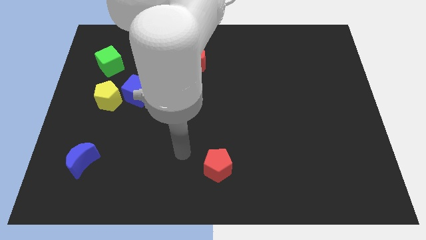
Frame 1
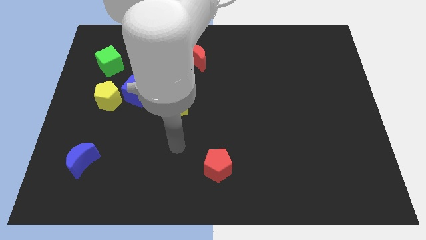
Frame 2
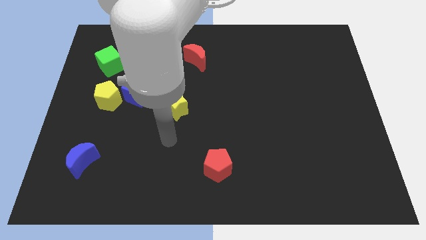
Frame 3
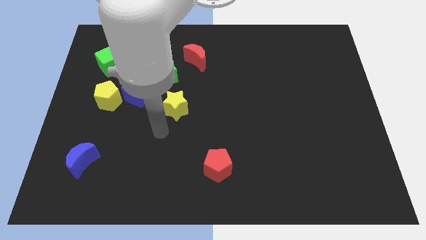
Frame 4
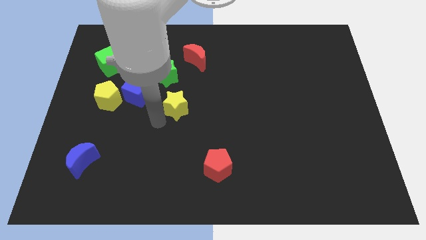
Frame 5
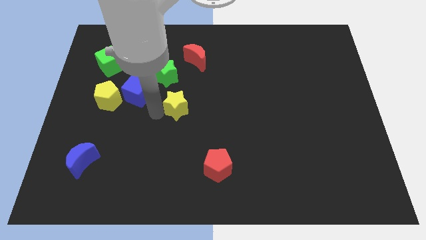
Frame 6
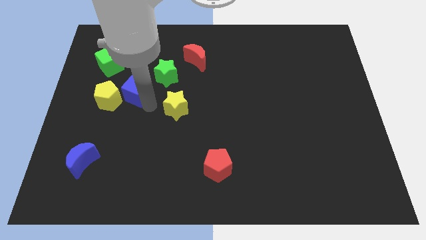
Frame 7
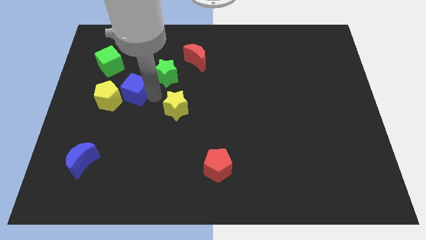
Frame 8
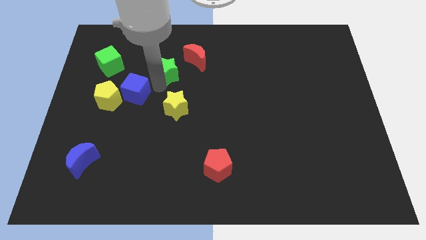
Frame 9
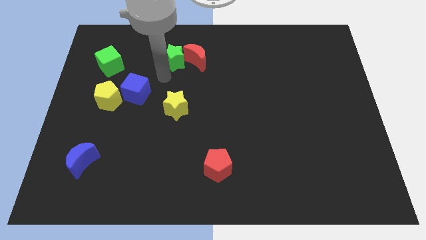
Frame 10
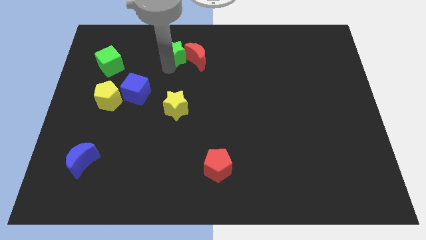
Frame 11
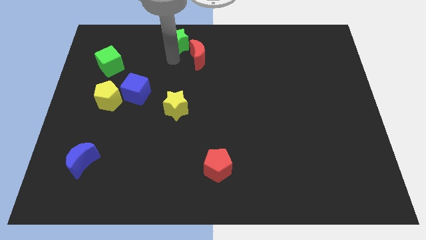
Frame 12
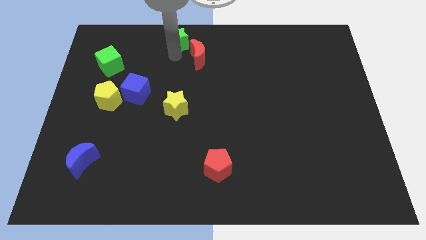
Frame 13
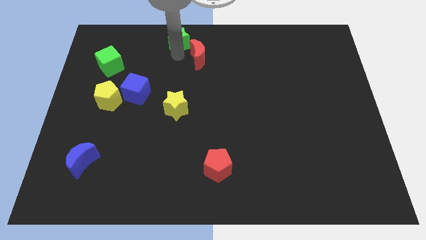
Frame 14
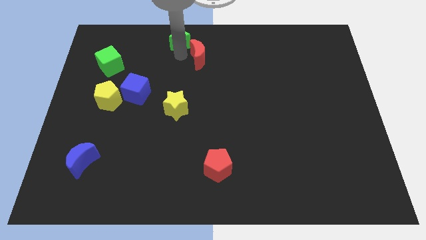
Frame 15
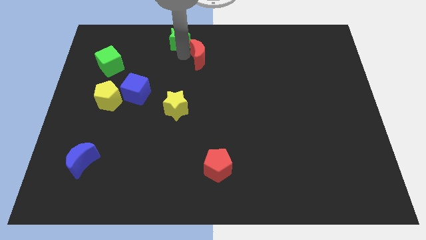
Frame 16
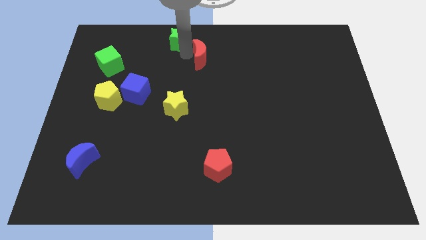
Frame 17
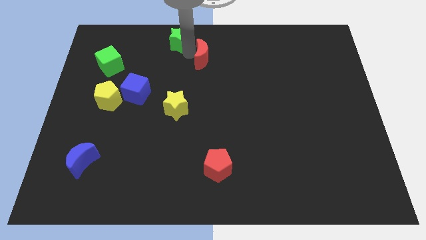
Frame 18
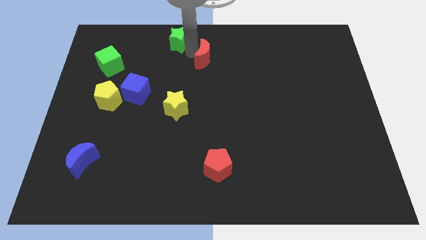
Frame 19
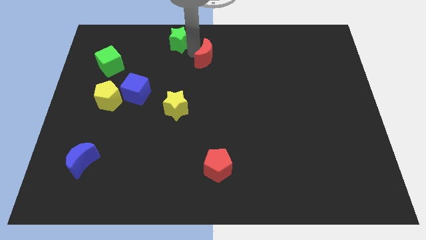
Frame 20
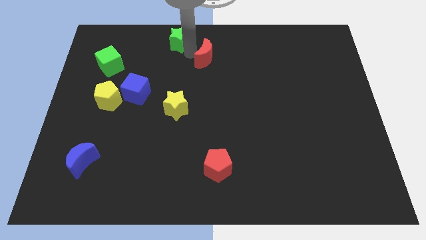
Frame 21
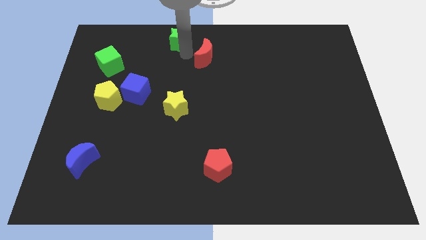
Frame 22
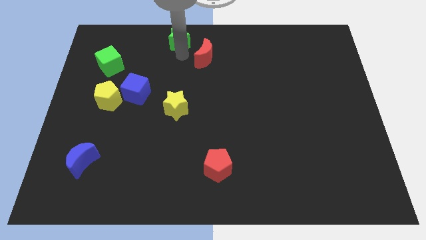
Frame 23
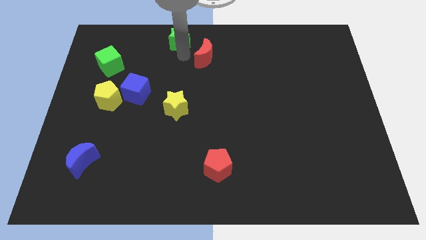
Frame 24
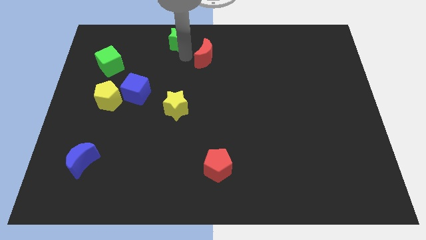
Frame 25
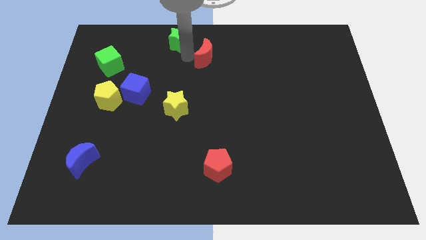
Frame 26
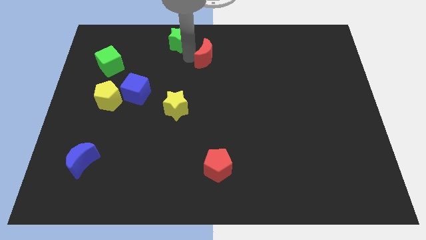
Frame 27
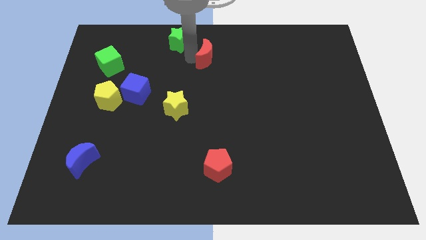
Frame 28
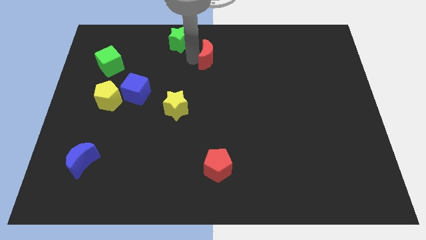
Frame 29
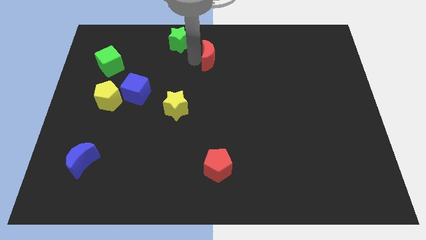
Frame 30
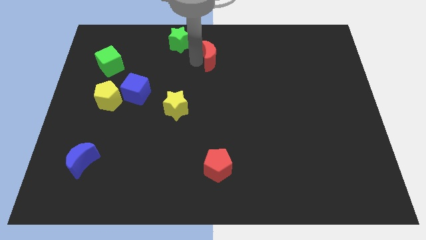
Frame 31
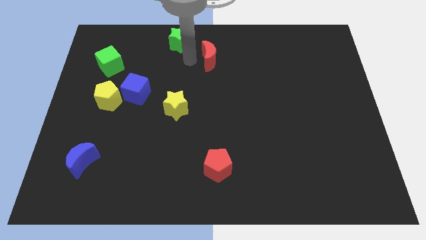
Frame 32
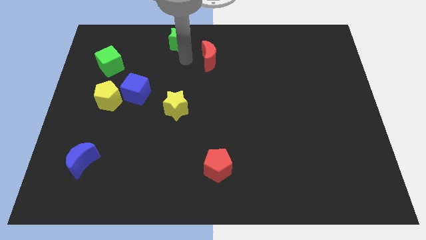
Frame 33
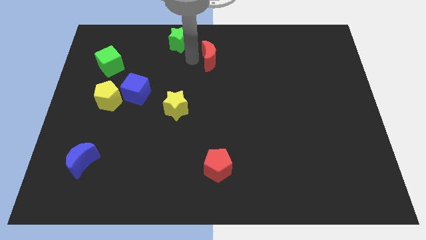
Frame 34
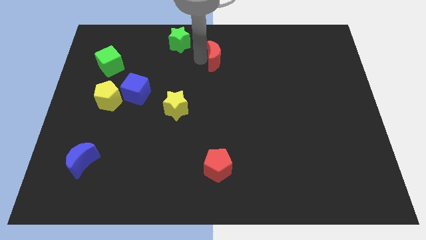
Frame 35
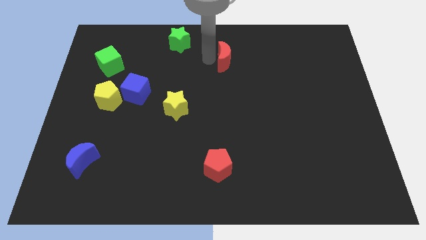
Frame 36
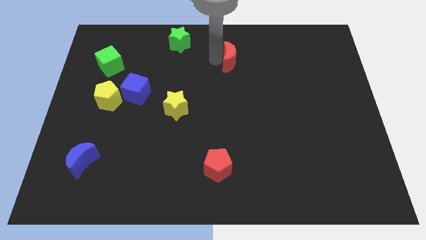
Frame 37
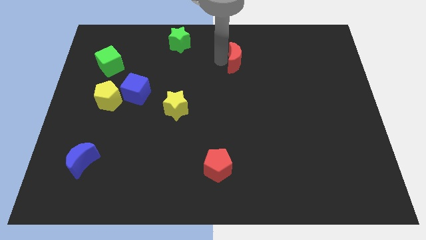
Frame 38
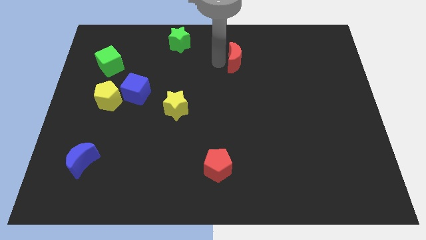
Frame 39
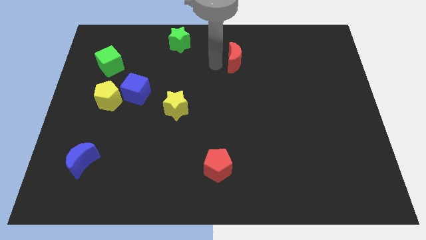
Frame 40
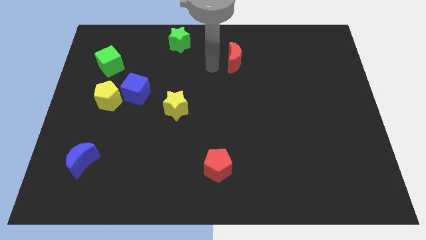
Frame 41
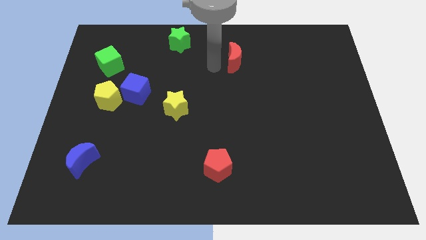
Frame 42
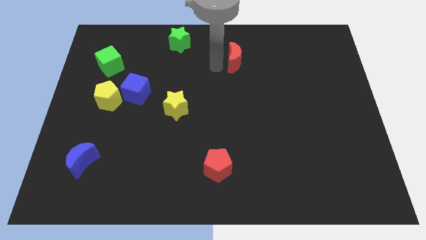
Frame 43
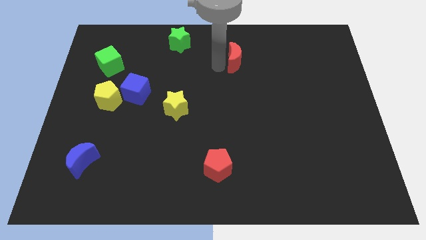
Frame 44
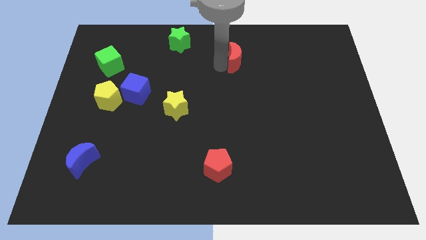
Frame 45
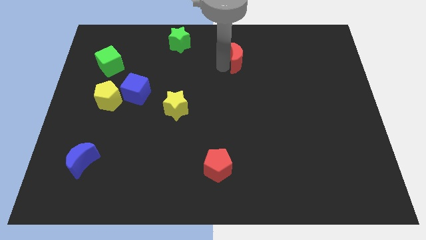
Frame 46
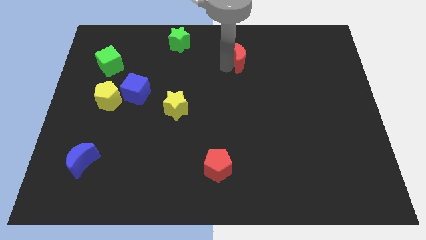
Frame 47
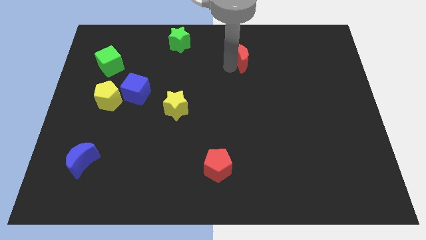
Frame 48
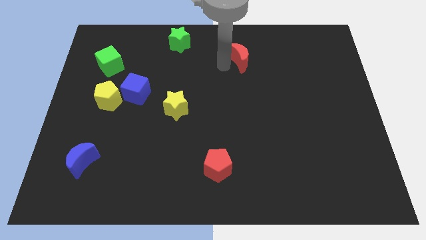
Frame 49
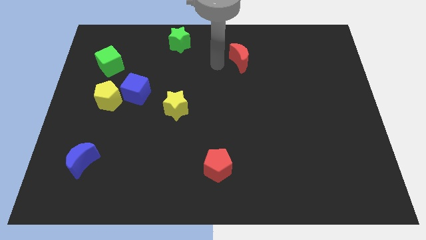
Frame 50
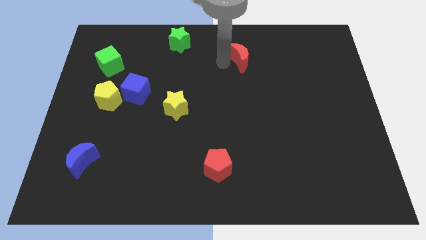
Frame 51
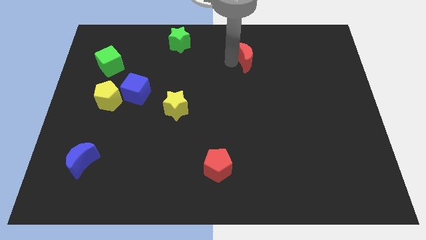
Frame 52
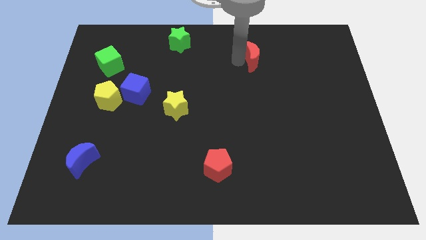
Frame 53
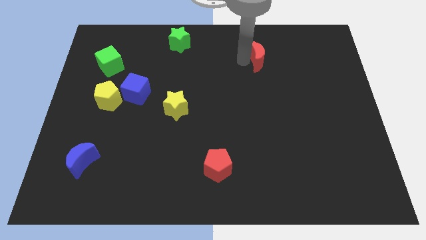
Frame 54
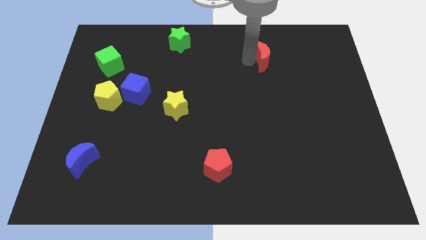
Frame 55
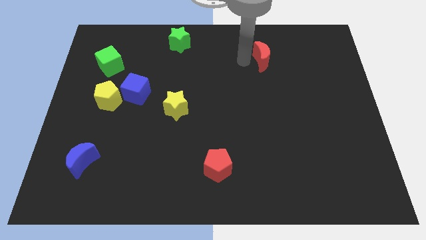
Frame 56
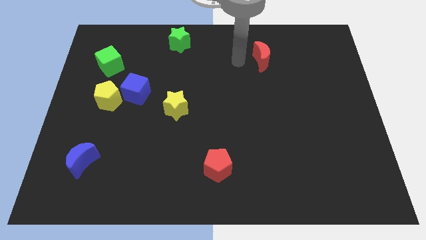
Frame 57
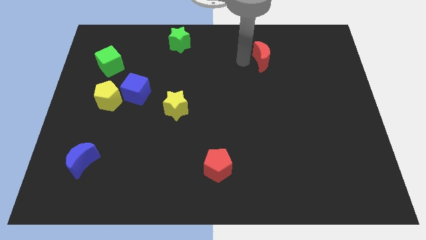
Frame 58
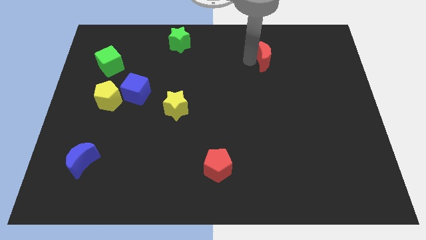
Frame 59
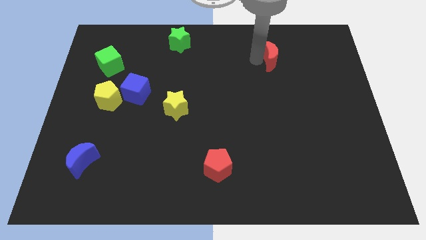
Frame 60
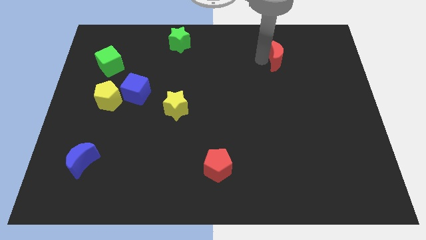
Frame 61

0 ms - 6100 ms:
move the red moon to the right

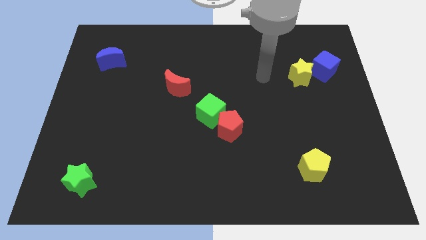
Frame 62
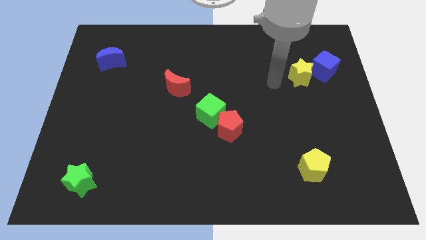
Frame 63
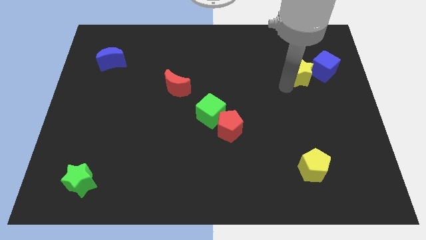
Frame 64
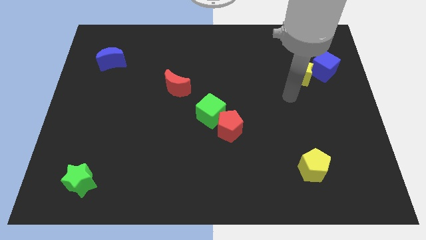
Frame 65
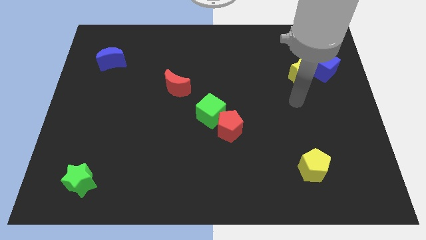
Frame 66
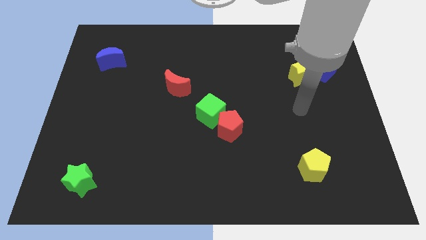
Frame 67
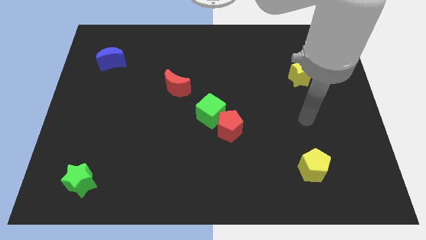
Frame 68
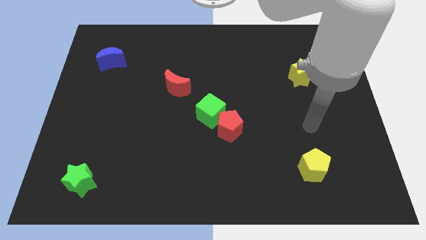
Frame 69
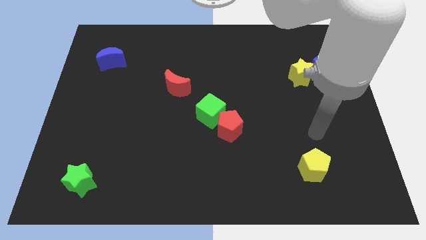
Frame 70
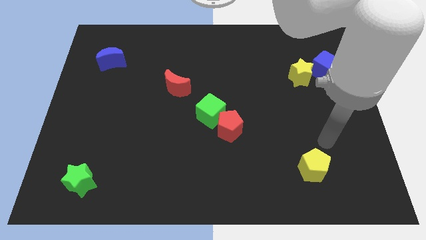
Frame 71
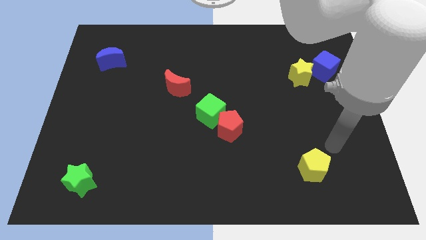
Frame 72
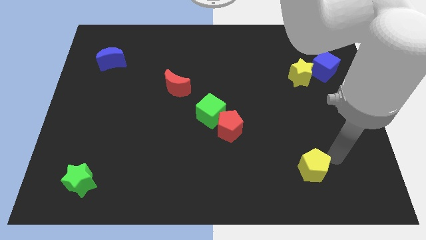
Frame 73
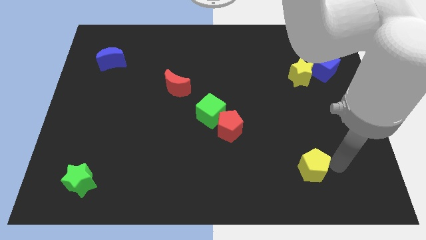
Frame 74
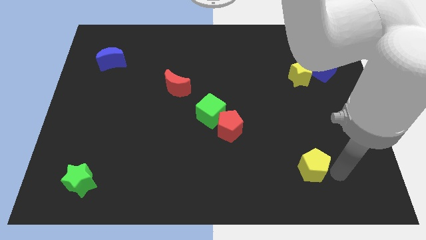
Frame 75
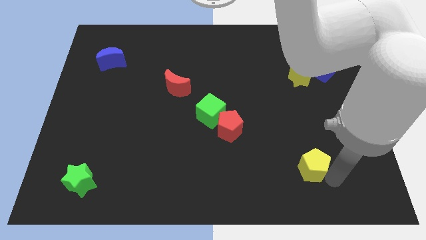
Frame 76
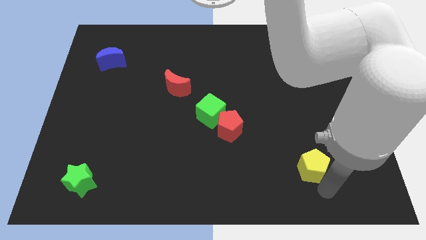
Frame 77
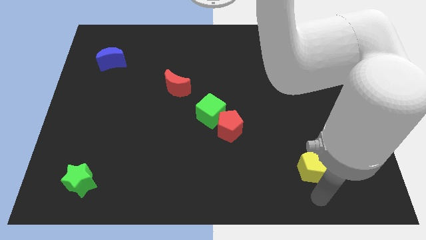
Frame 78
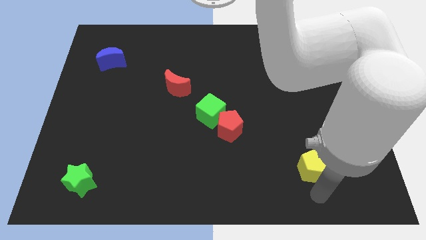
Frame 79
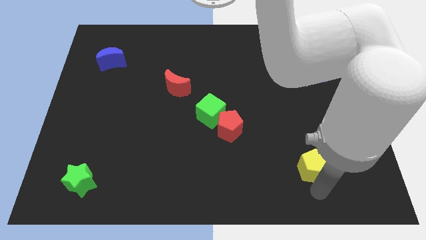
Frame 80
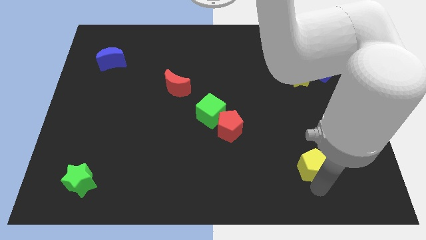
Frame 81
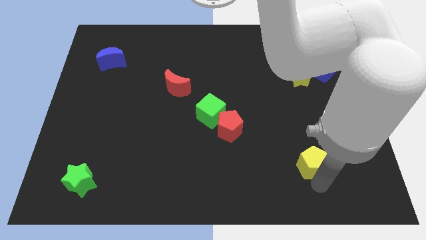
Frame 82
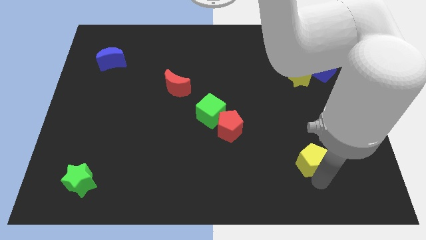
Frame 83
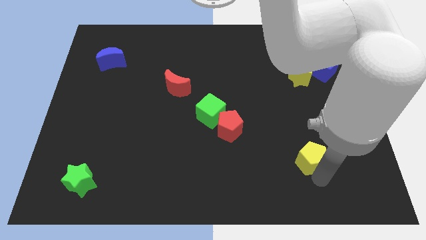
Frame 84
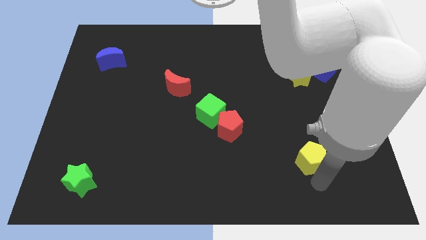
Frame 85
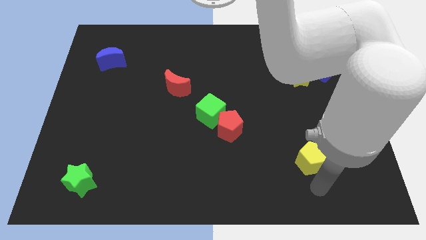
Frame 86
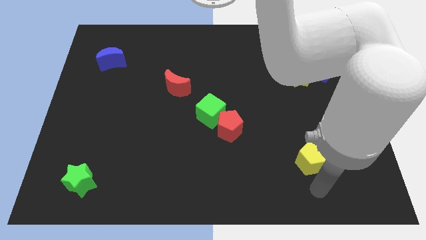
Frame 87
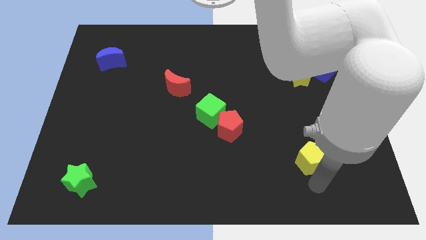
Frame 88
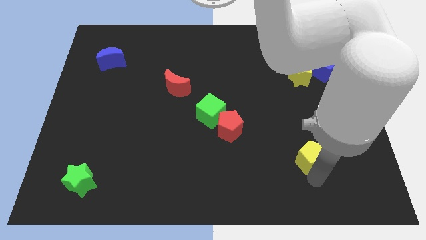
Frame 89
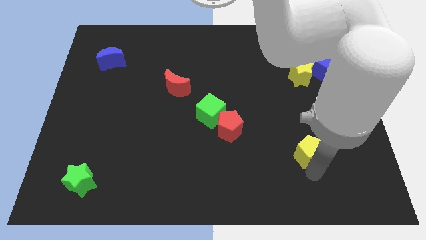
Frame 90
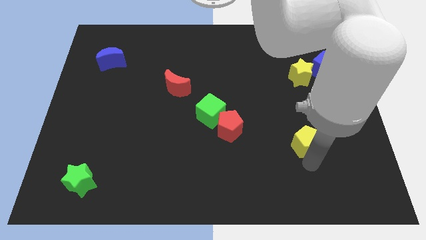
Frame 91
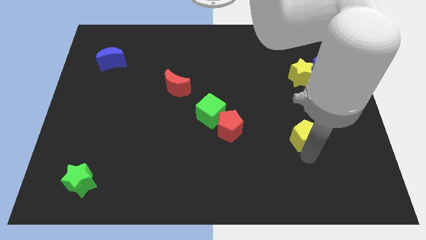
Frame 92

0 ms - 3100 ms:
push the yellow pentagon upwards somewhat
